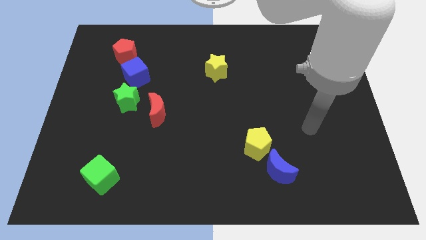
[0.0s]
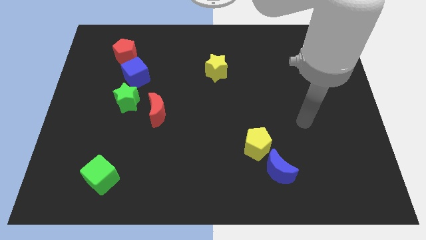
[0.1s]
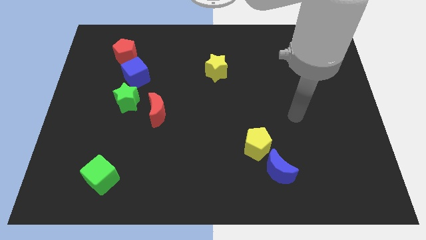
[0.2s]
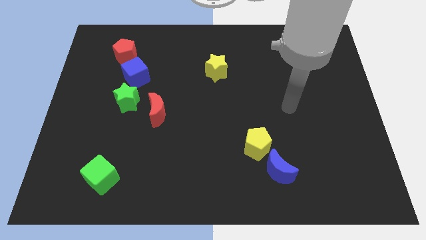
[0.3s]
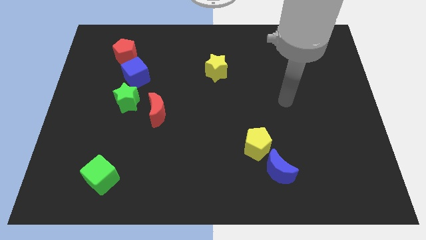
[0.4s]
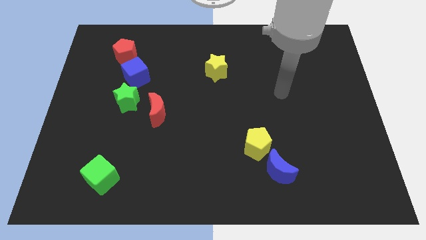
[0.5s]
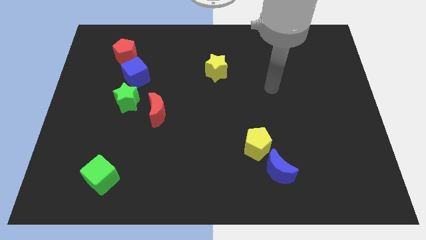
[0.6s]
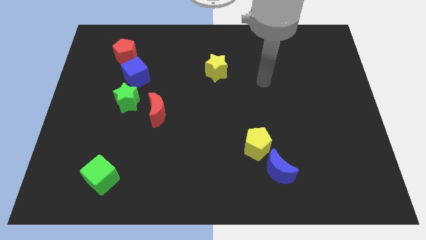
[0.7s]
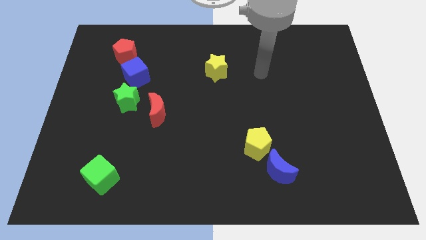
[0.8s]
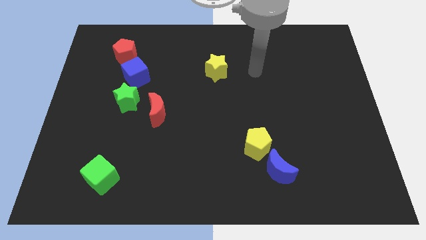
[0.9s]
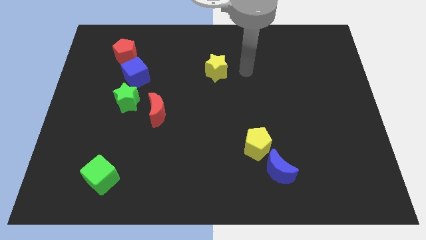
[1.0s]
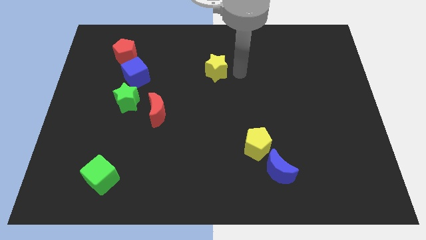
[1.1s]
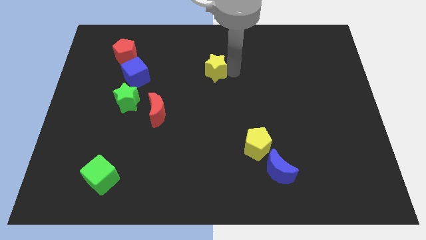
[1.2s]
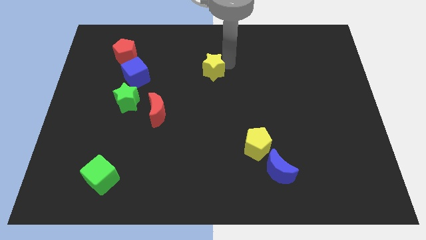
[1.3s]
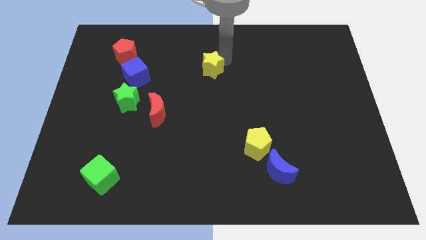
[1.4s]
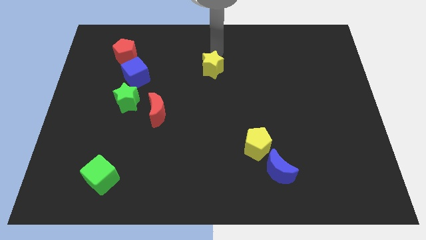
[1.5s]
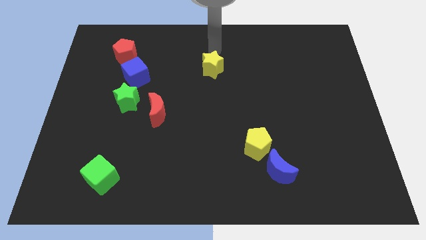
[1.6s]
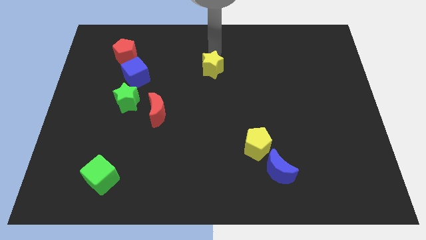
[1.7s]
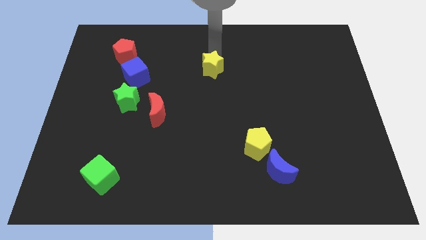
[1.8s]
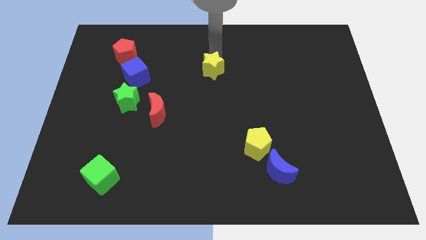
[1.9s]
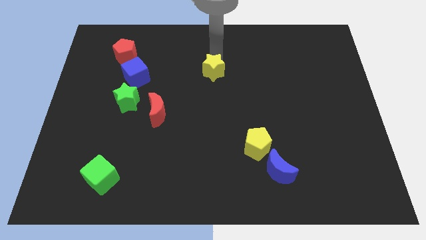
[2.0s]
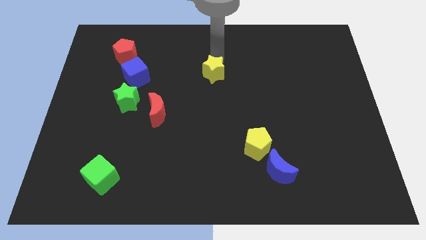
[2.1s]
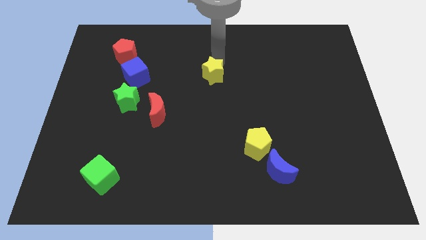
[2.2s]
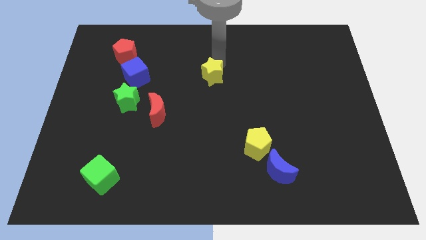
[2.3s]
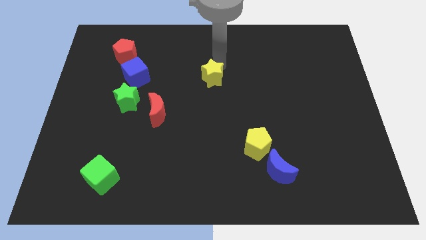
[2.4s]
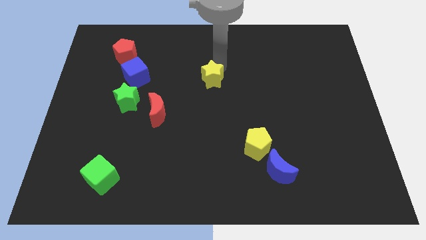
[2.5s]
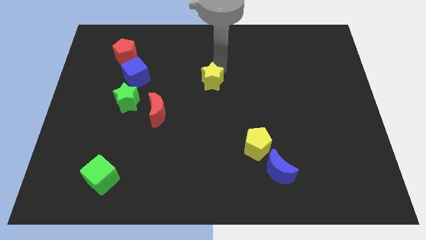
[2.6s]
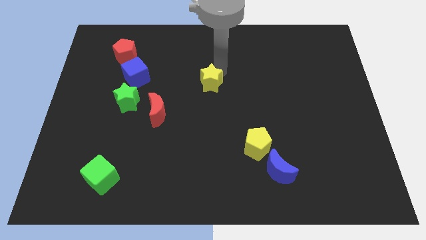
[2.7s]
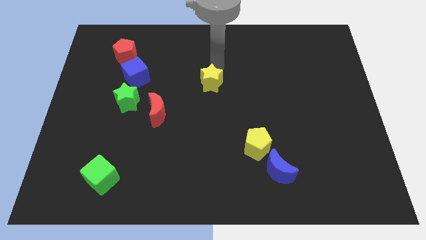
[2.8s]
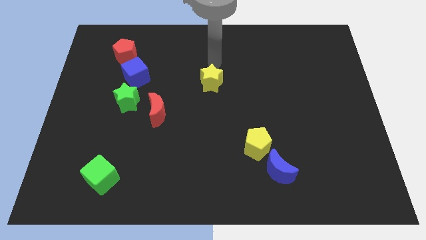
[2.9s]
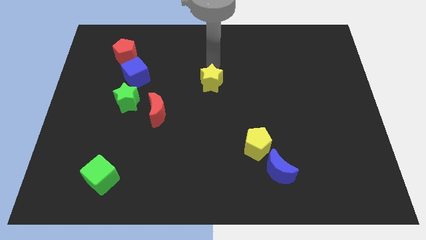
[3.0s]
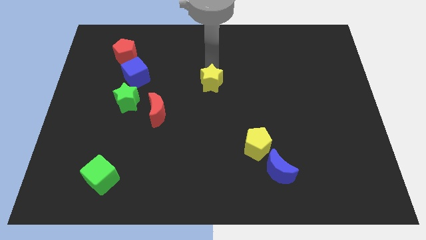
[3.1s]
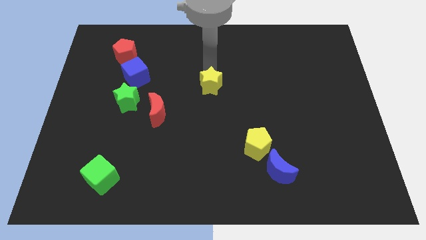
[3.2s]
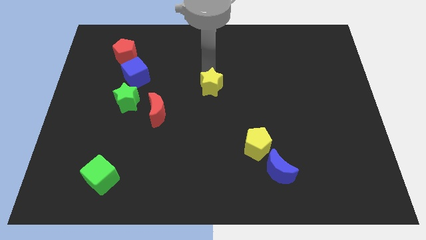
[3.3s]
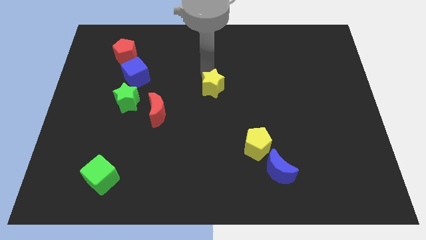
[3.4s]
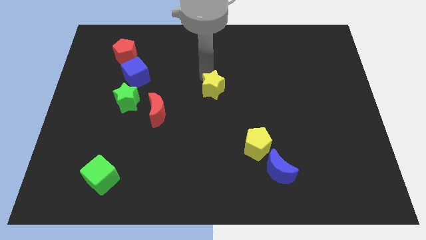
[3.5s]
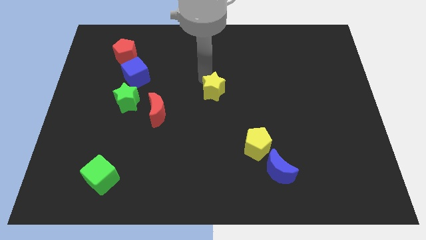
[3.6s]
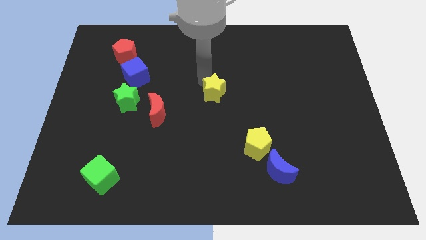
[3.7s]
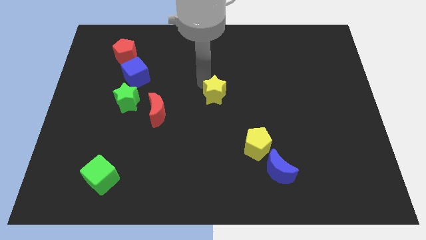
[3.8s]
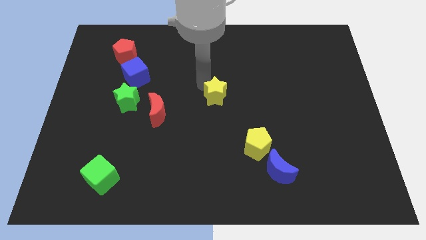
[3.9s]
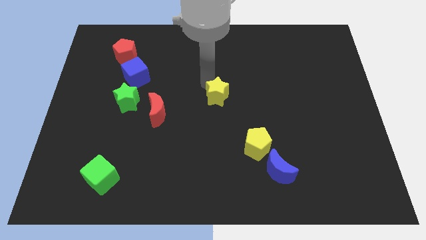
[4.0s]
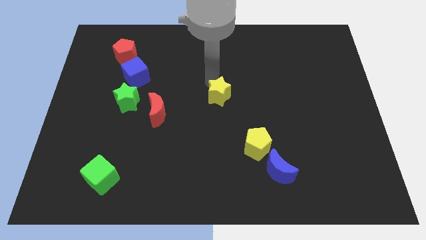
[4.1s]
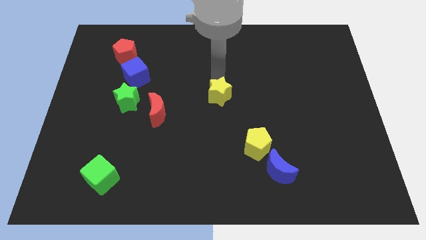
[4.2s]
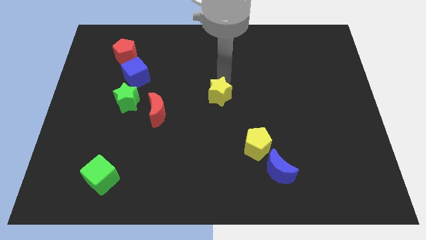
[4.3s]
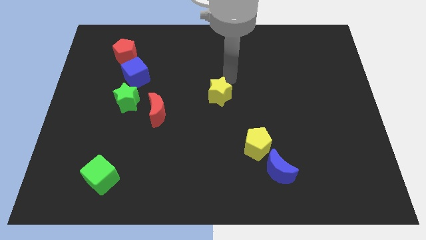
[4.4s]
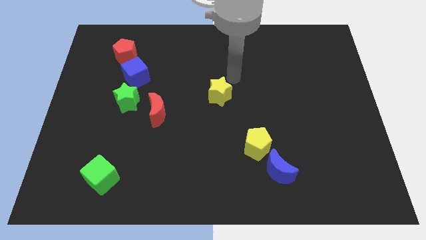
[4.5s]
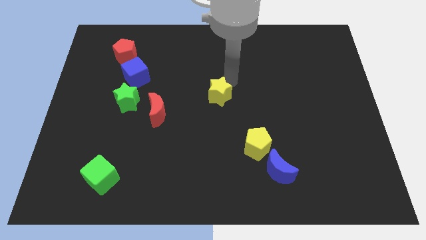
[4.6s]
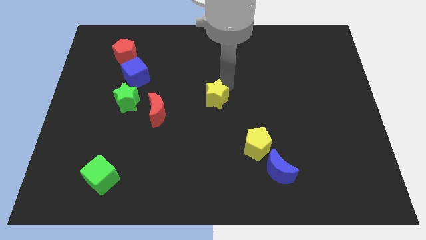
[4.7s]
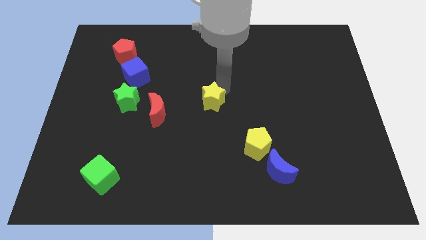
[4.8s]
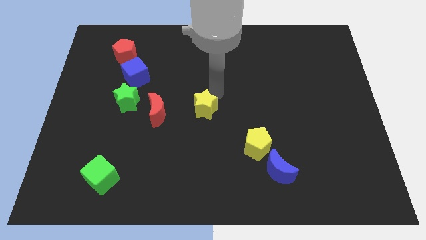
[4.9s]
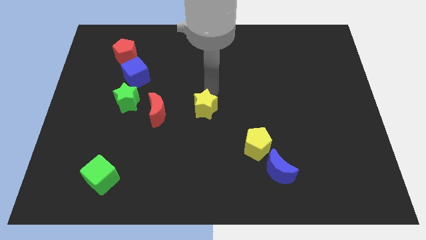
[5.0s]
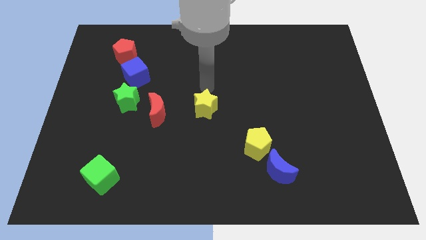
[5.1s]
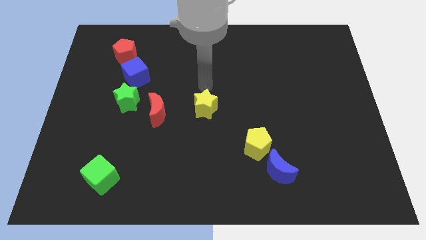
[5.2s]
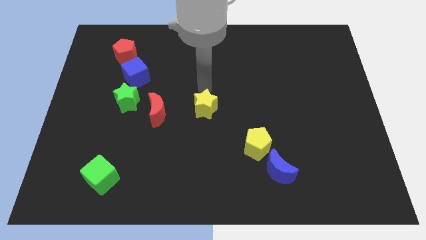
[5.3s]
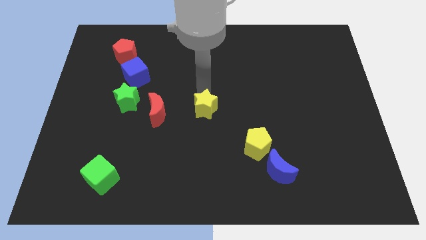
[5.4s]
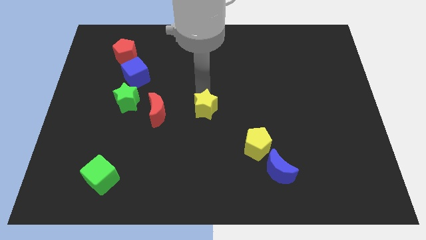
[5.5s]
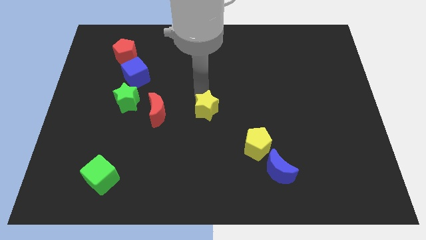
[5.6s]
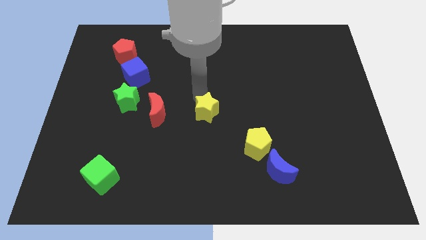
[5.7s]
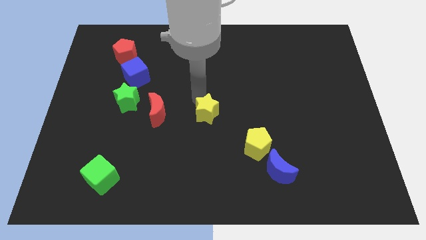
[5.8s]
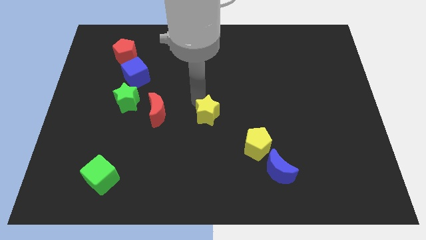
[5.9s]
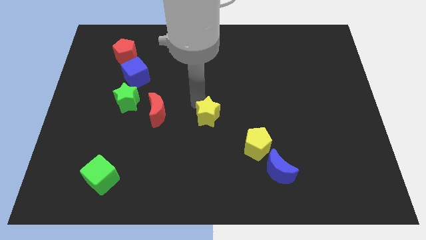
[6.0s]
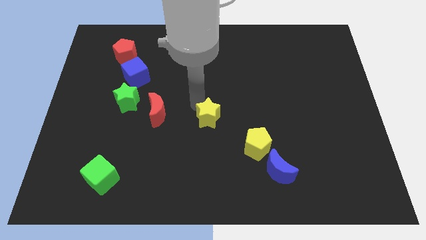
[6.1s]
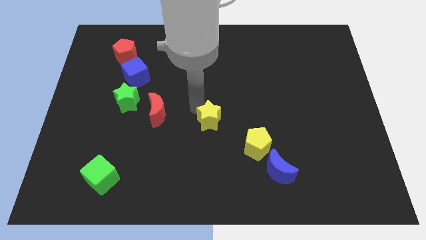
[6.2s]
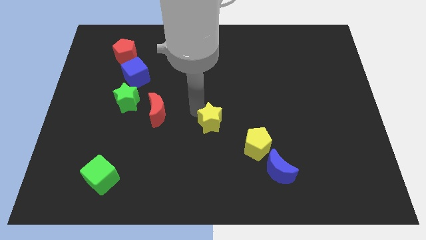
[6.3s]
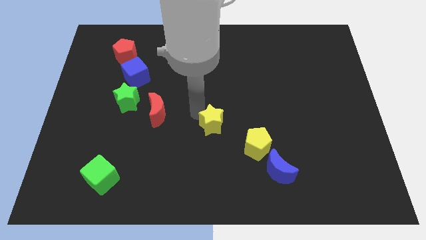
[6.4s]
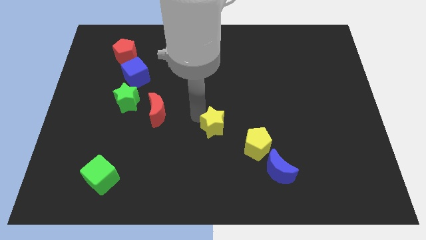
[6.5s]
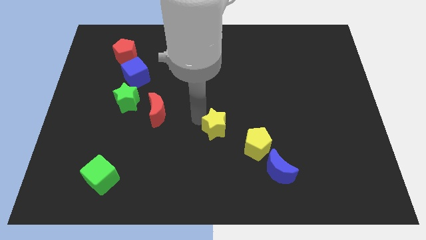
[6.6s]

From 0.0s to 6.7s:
put the yellow star to the left of the yellow pentagon
